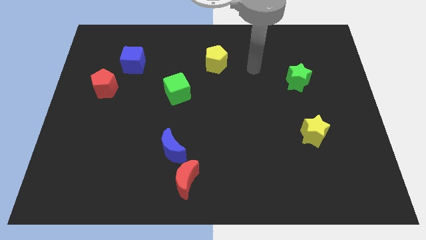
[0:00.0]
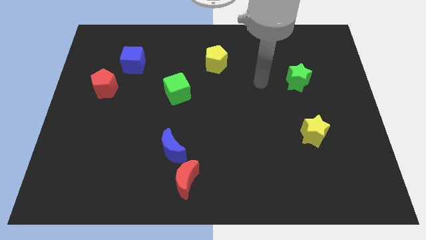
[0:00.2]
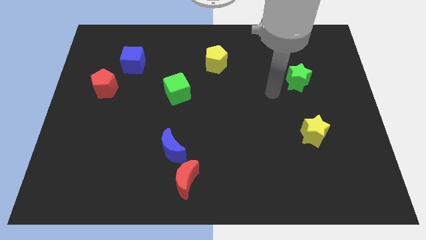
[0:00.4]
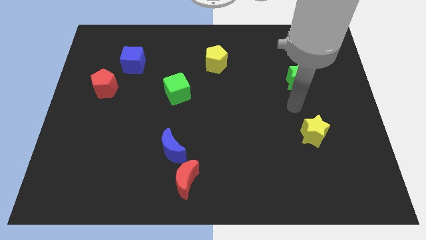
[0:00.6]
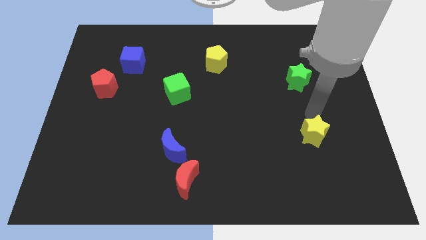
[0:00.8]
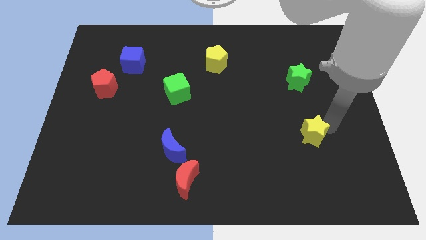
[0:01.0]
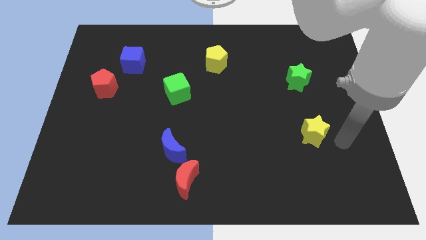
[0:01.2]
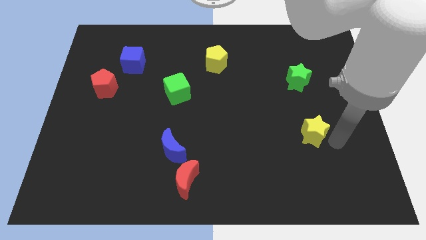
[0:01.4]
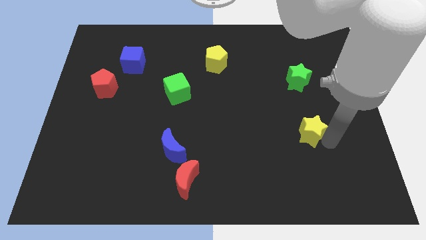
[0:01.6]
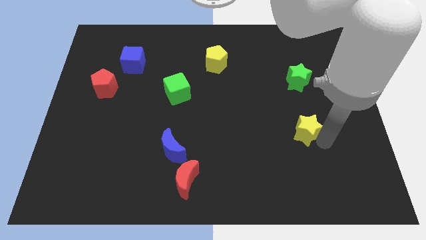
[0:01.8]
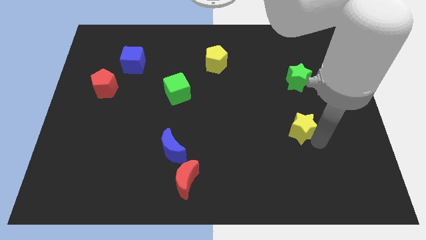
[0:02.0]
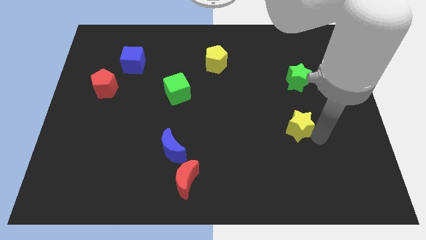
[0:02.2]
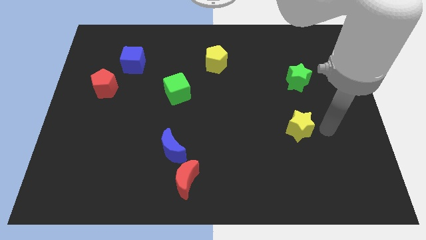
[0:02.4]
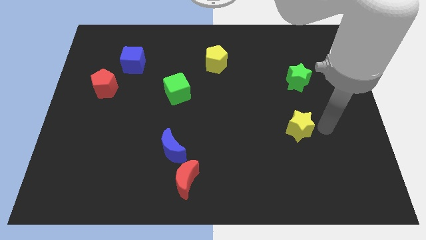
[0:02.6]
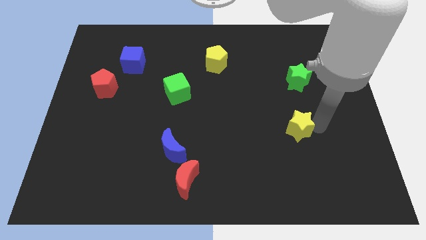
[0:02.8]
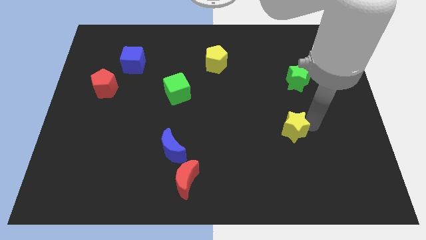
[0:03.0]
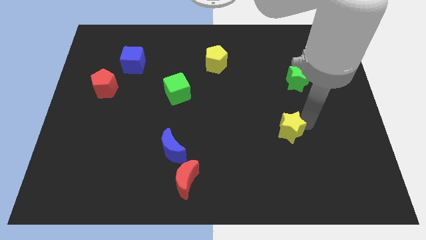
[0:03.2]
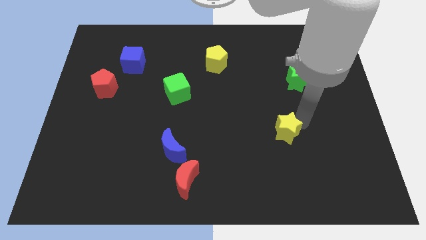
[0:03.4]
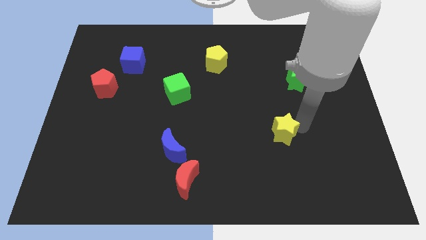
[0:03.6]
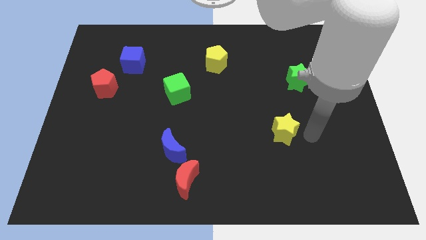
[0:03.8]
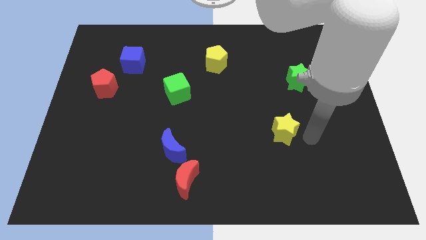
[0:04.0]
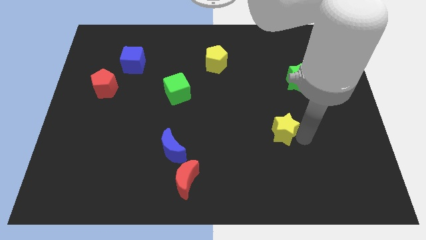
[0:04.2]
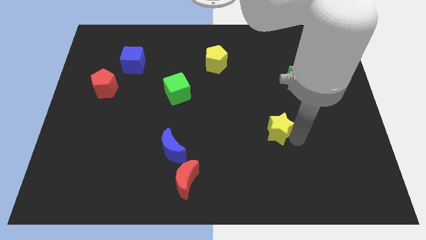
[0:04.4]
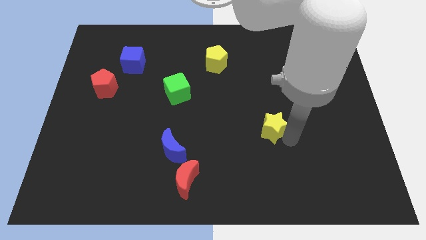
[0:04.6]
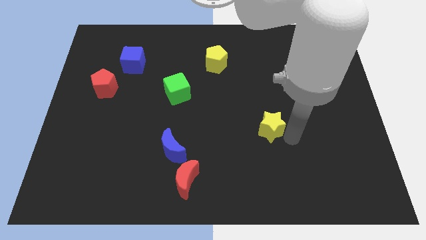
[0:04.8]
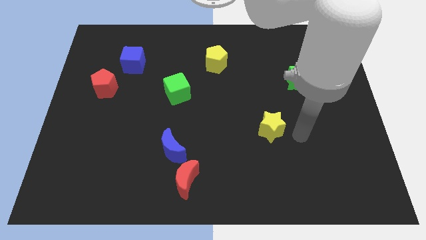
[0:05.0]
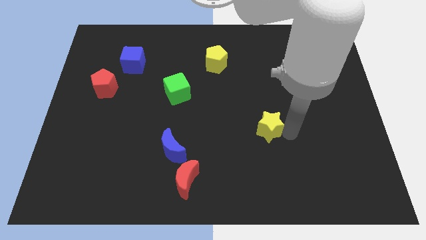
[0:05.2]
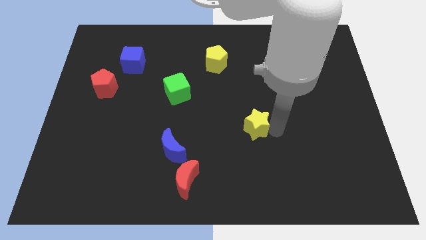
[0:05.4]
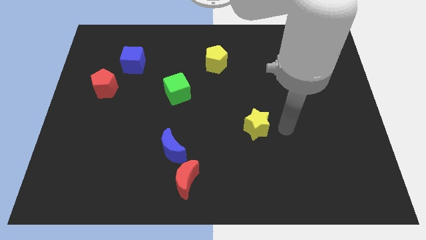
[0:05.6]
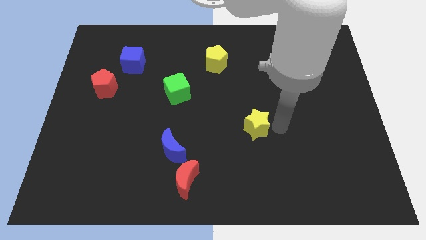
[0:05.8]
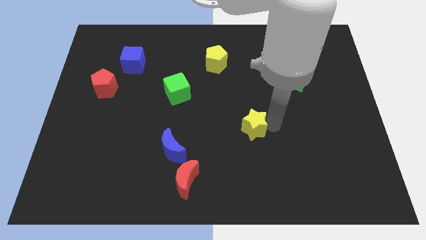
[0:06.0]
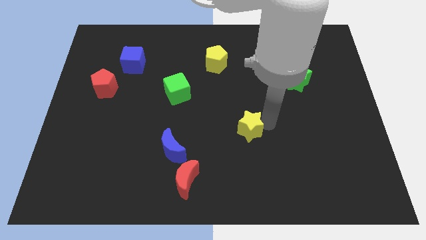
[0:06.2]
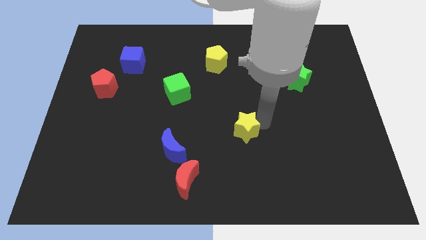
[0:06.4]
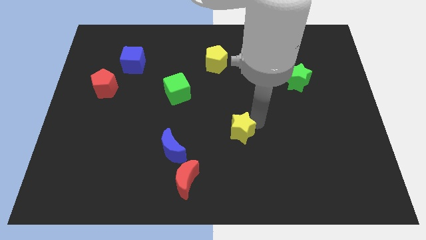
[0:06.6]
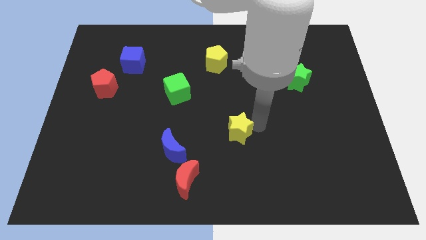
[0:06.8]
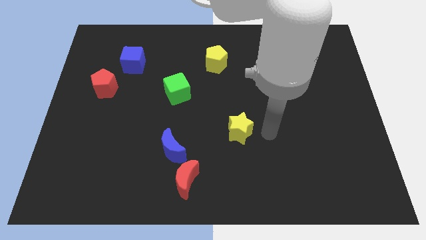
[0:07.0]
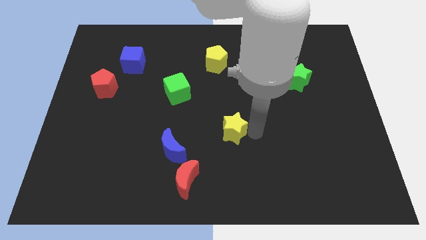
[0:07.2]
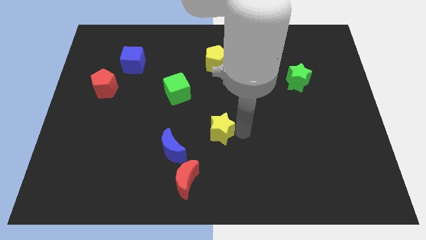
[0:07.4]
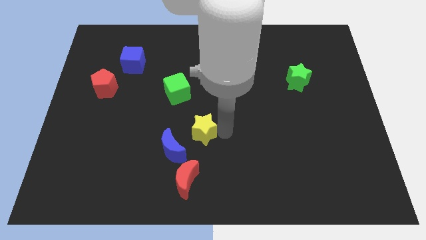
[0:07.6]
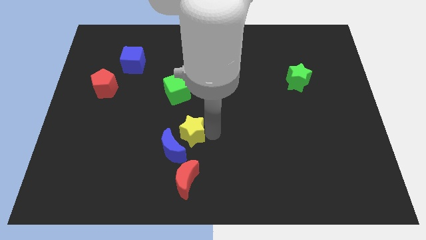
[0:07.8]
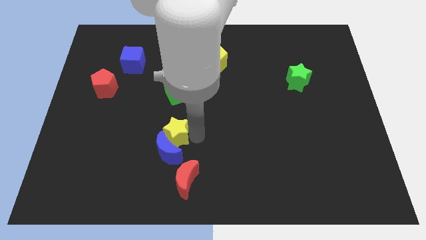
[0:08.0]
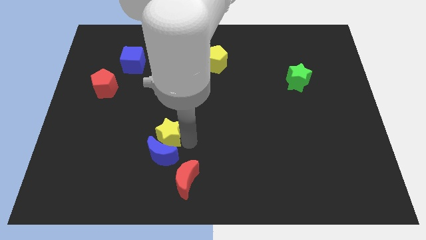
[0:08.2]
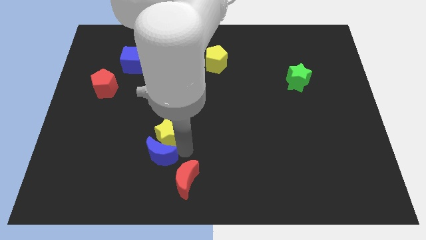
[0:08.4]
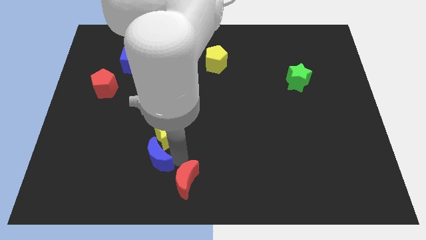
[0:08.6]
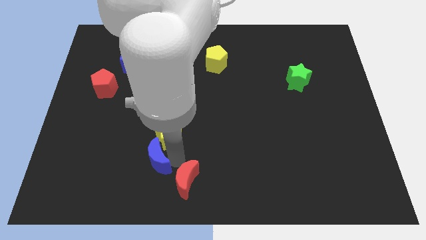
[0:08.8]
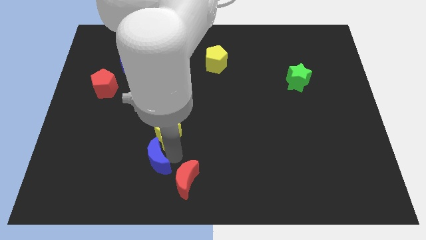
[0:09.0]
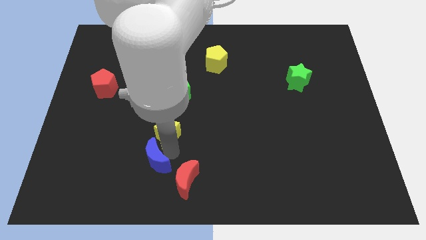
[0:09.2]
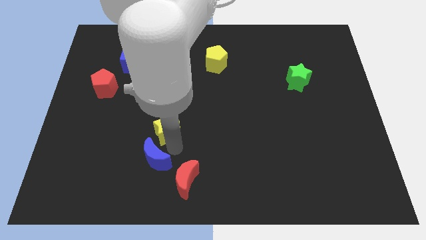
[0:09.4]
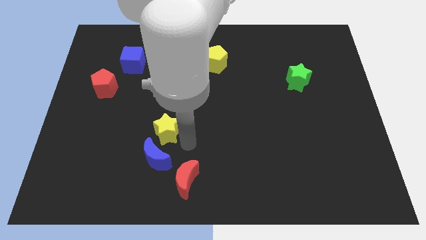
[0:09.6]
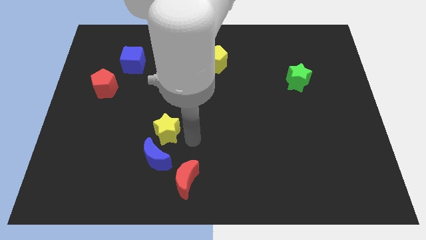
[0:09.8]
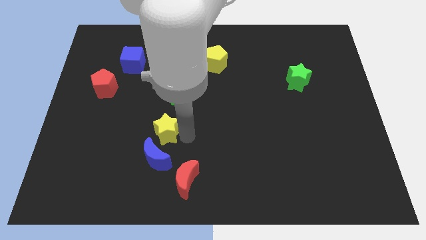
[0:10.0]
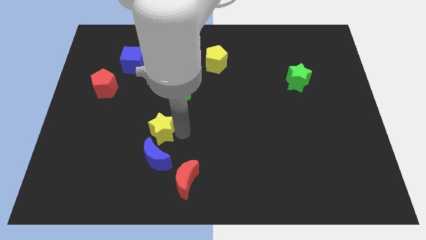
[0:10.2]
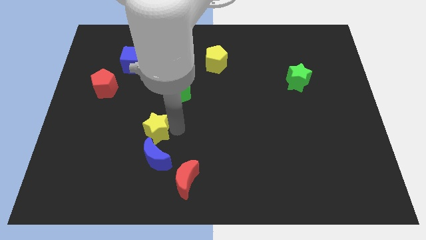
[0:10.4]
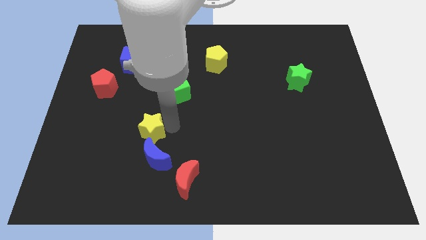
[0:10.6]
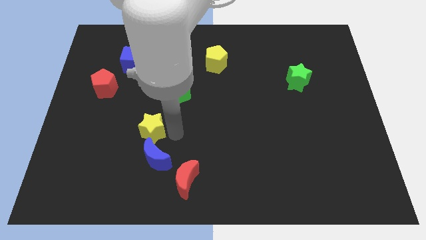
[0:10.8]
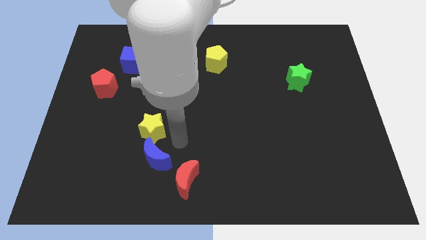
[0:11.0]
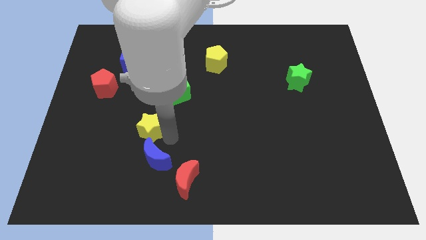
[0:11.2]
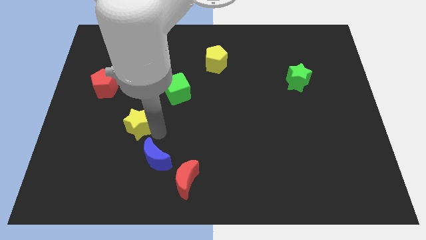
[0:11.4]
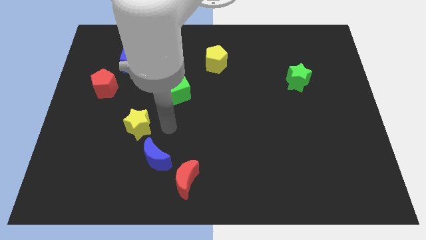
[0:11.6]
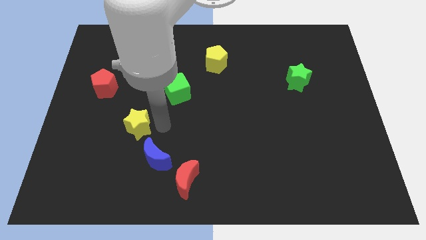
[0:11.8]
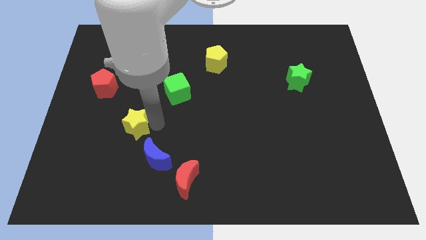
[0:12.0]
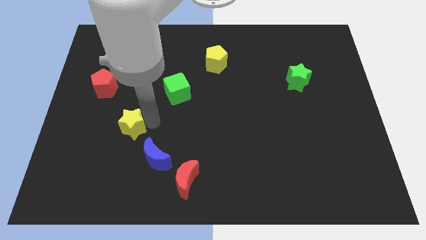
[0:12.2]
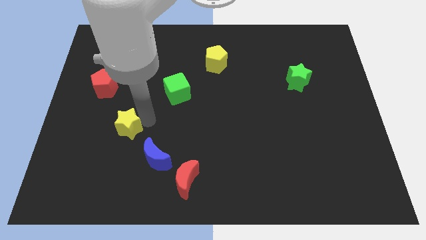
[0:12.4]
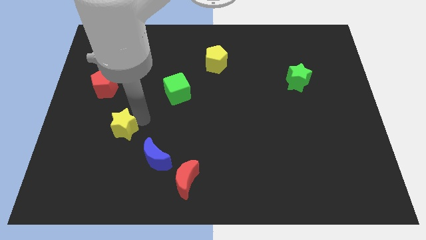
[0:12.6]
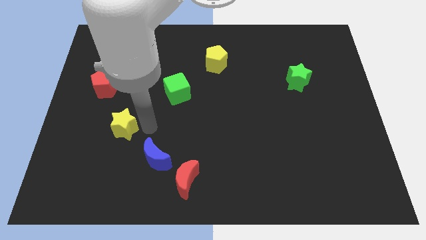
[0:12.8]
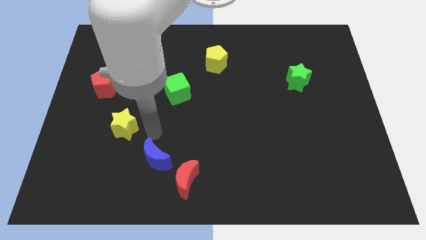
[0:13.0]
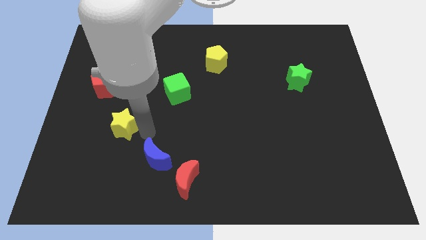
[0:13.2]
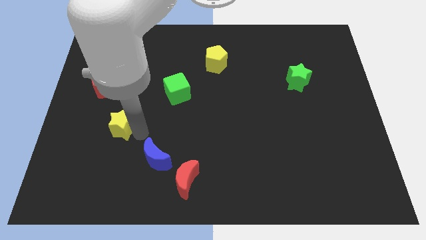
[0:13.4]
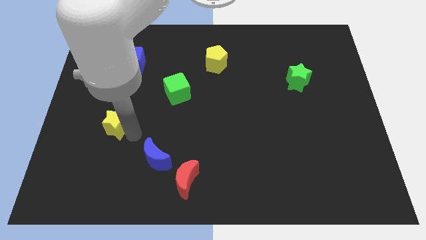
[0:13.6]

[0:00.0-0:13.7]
put the yellow star to the bottom side of the red pentagon
